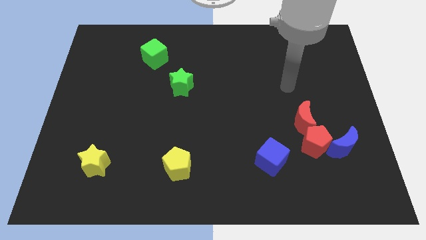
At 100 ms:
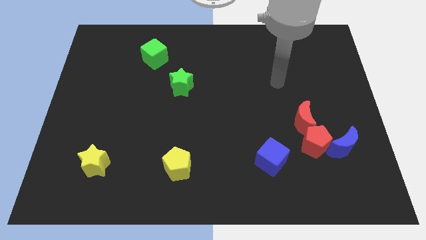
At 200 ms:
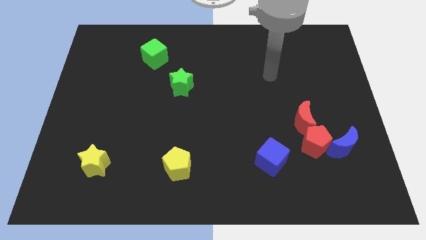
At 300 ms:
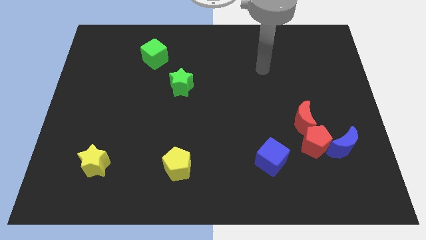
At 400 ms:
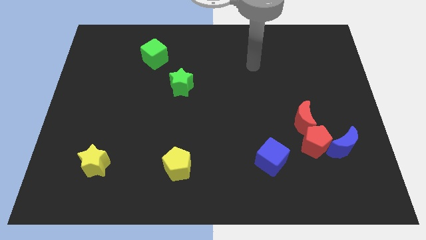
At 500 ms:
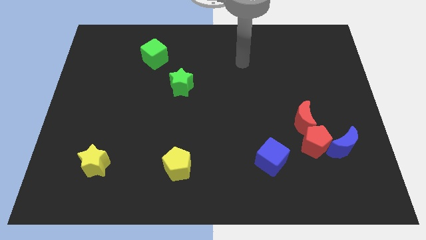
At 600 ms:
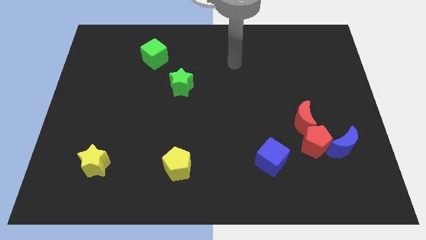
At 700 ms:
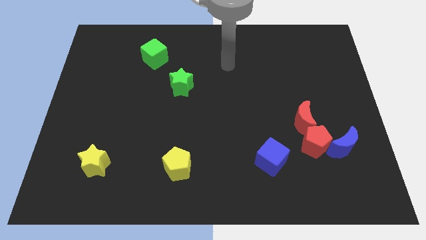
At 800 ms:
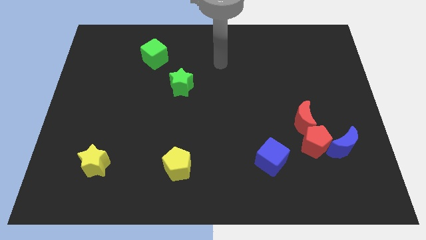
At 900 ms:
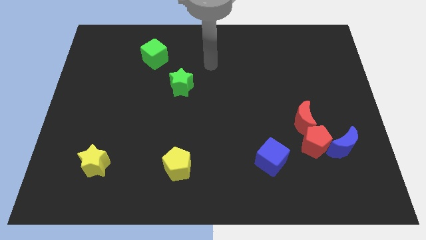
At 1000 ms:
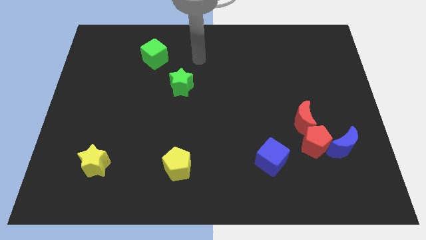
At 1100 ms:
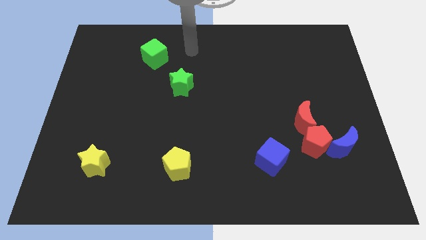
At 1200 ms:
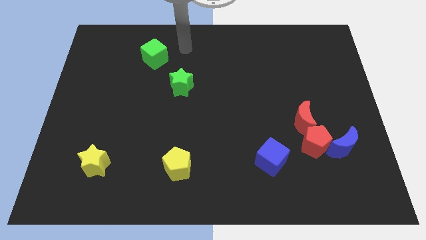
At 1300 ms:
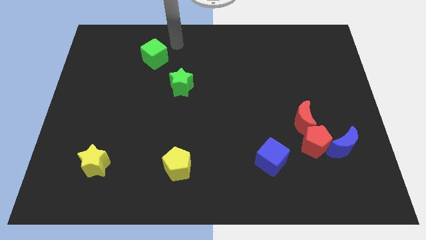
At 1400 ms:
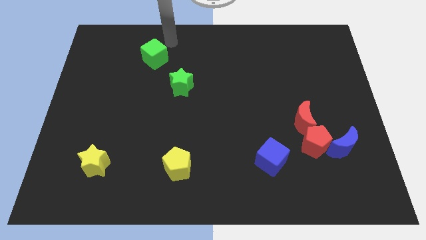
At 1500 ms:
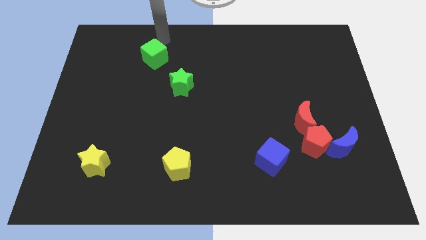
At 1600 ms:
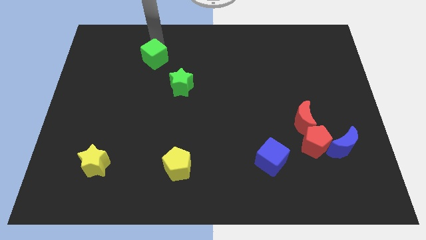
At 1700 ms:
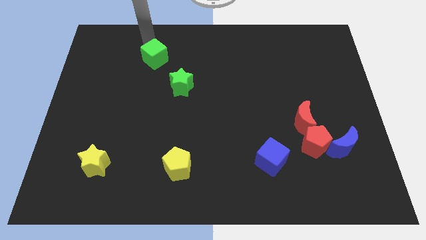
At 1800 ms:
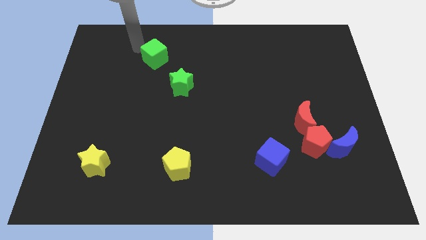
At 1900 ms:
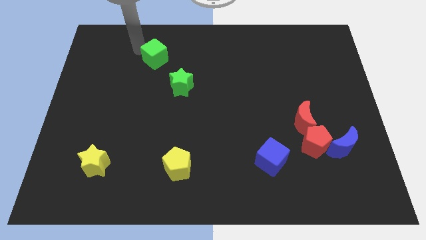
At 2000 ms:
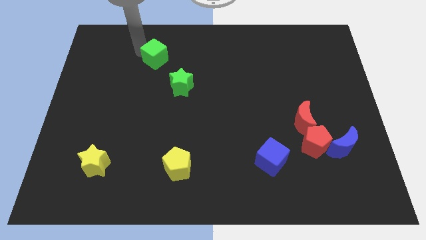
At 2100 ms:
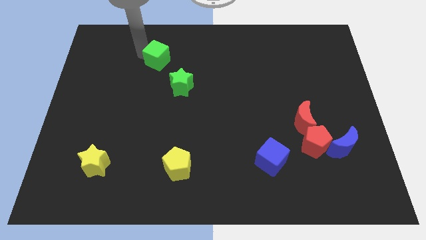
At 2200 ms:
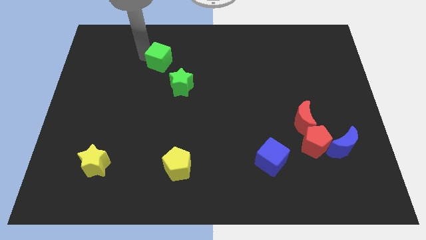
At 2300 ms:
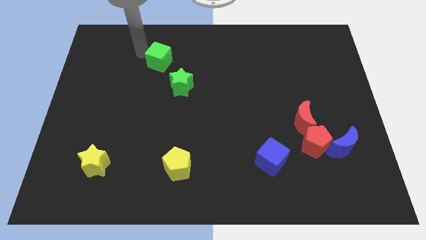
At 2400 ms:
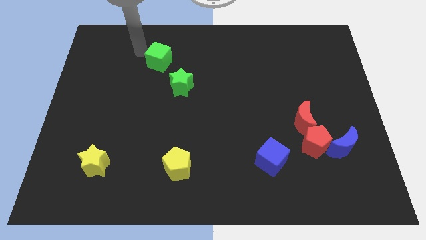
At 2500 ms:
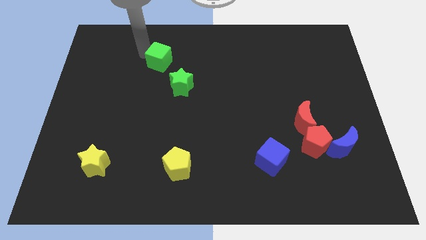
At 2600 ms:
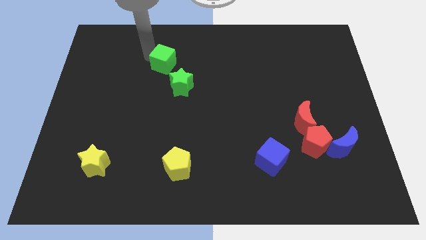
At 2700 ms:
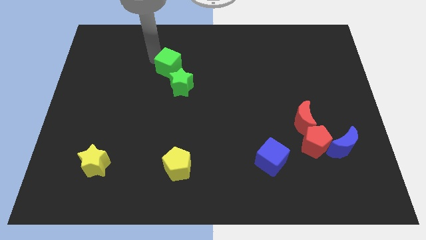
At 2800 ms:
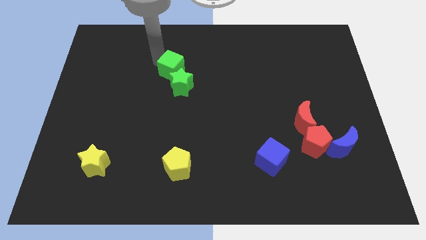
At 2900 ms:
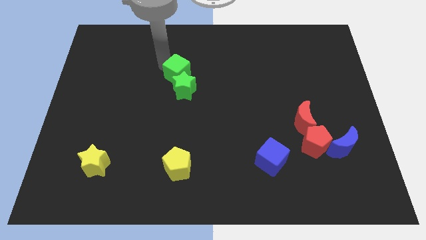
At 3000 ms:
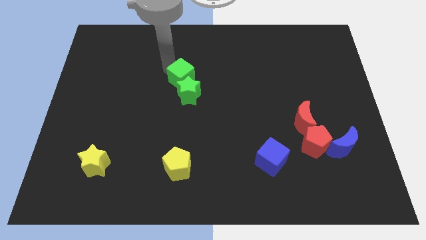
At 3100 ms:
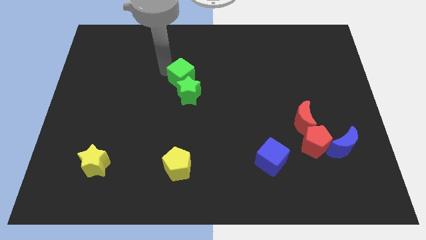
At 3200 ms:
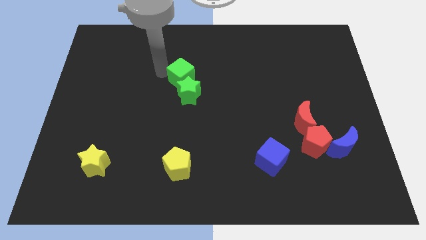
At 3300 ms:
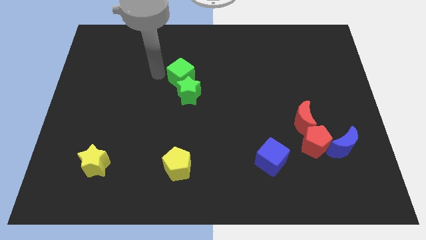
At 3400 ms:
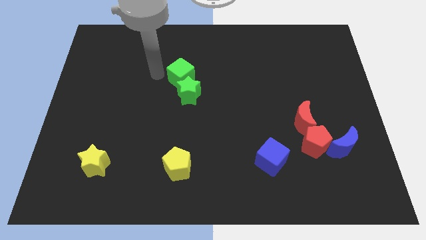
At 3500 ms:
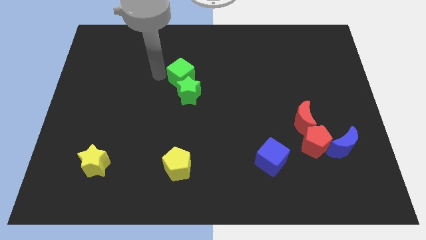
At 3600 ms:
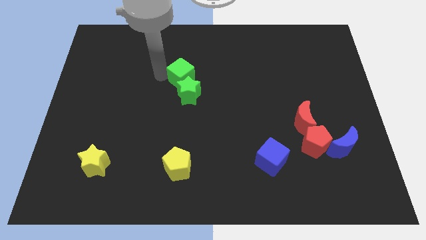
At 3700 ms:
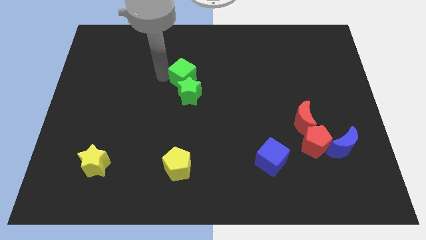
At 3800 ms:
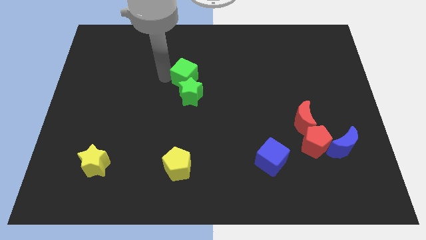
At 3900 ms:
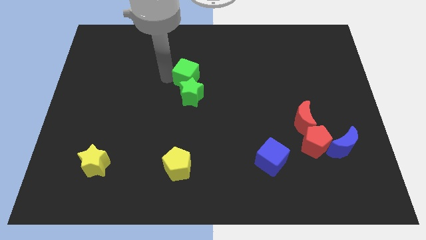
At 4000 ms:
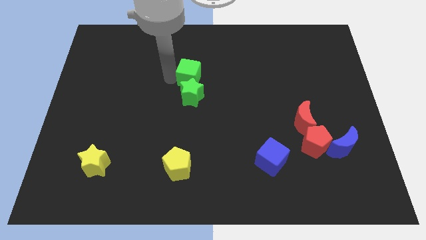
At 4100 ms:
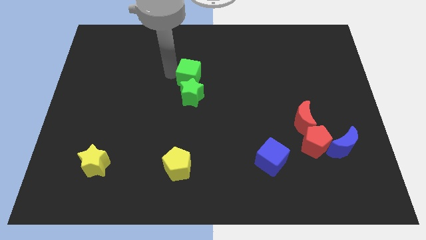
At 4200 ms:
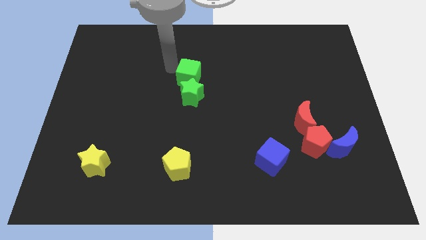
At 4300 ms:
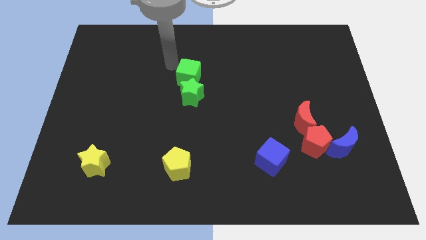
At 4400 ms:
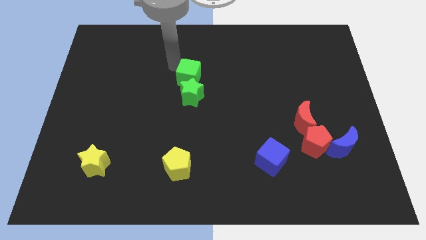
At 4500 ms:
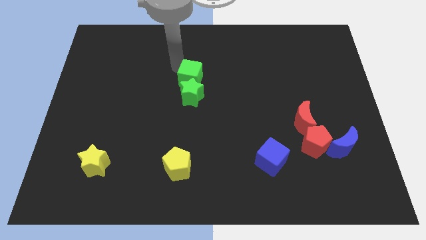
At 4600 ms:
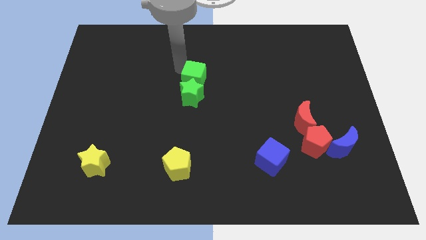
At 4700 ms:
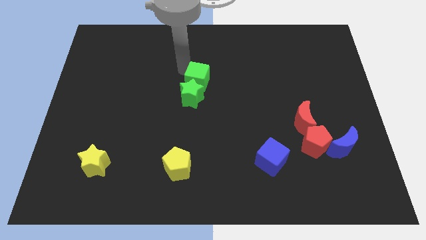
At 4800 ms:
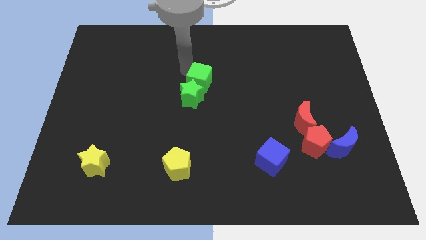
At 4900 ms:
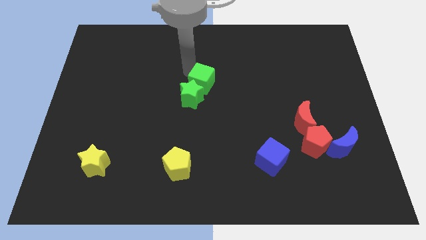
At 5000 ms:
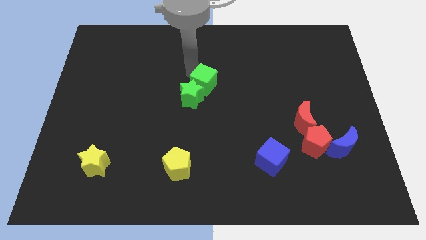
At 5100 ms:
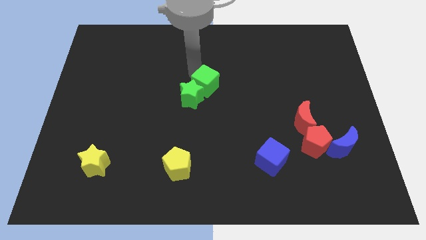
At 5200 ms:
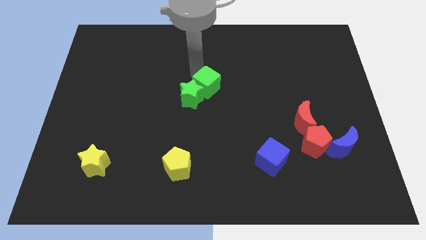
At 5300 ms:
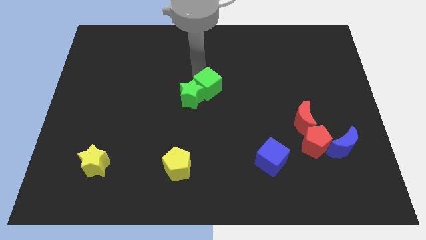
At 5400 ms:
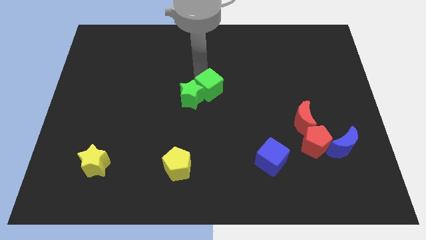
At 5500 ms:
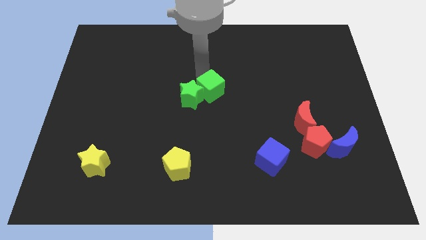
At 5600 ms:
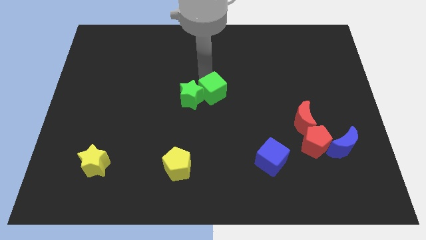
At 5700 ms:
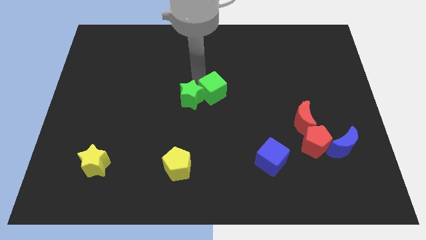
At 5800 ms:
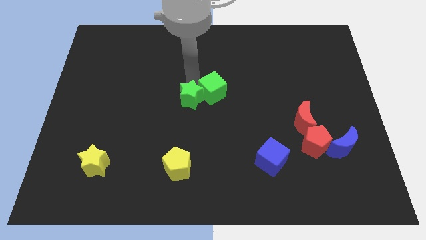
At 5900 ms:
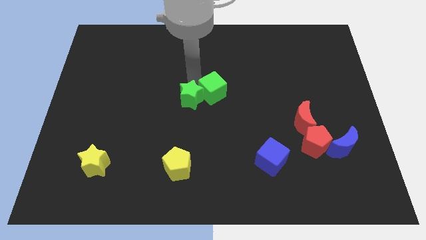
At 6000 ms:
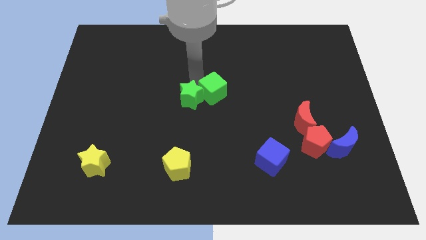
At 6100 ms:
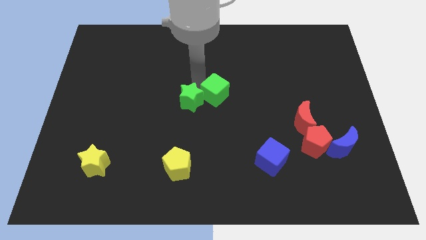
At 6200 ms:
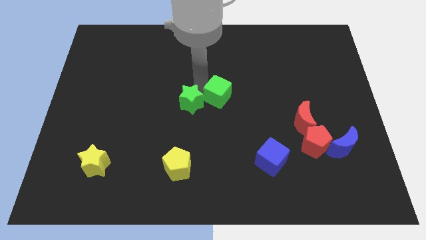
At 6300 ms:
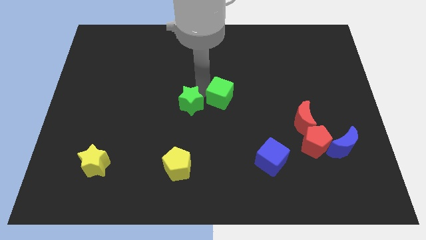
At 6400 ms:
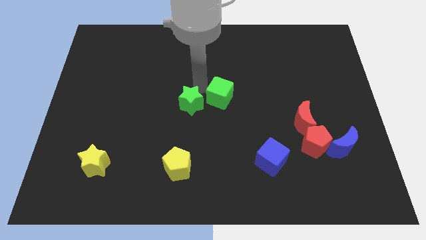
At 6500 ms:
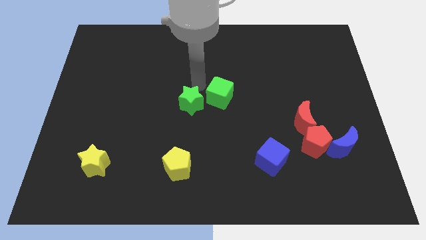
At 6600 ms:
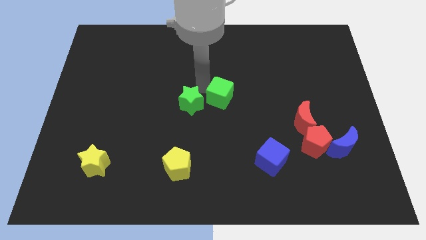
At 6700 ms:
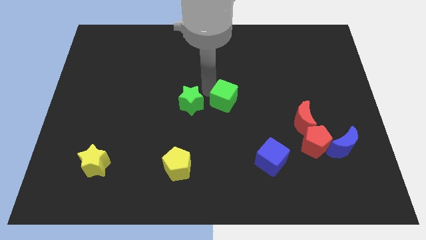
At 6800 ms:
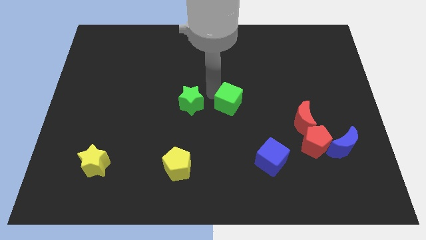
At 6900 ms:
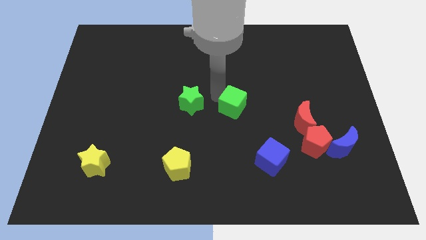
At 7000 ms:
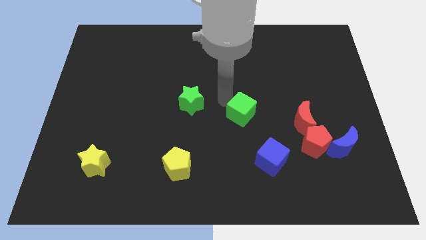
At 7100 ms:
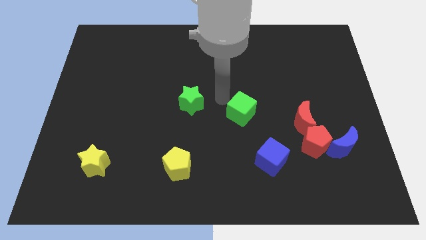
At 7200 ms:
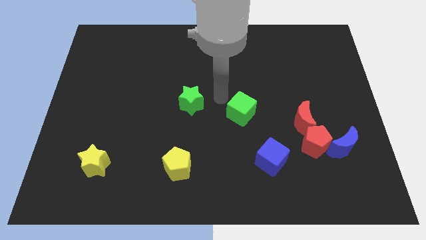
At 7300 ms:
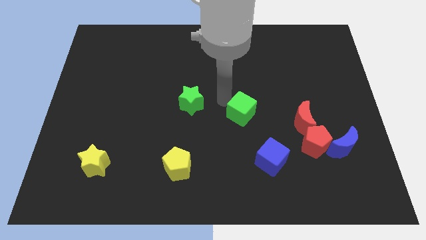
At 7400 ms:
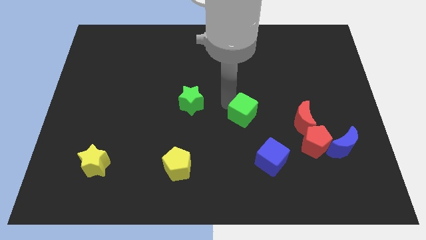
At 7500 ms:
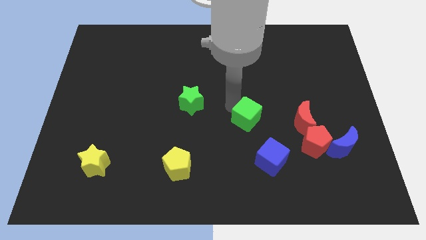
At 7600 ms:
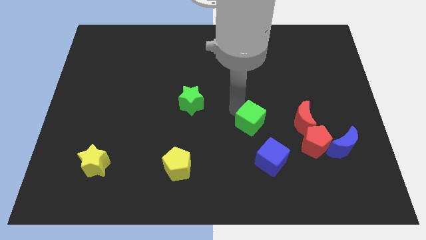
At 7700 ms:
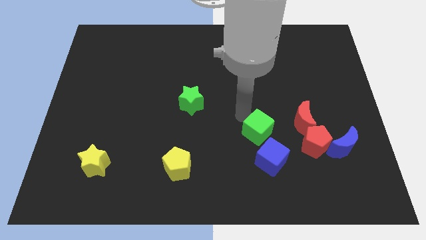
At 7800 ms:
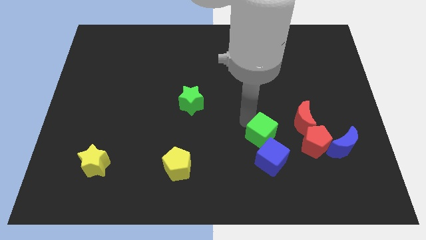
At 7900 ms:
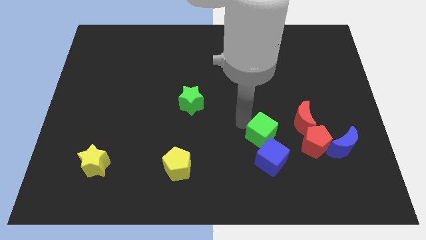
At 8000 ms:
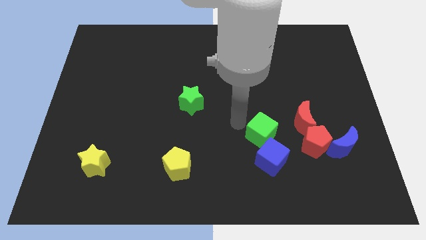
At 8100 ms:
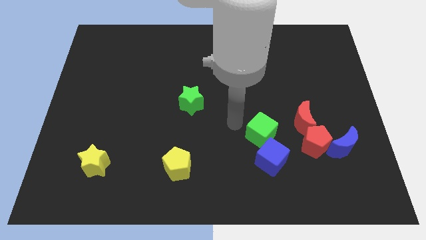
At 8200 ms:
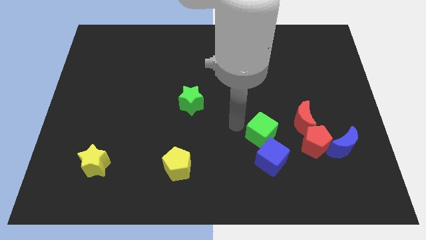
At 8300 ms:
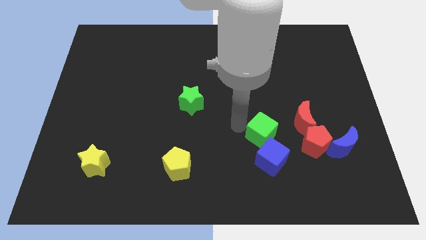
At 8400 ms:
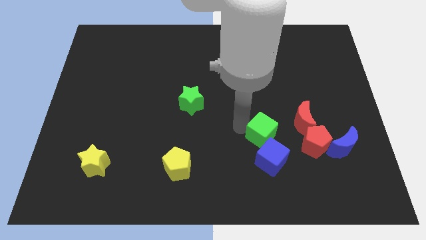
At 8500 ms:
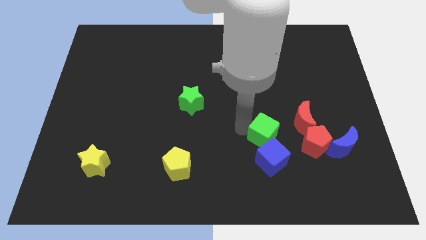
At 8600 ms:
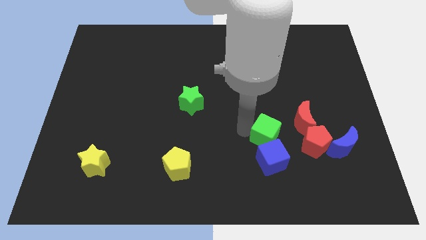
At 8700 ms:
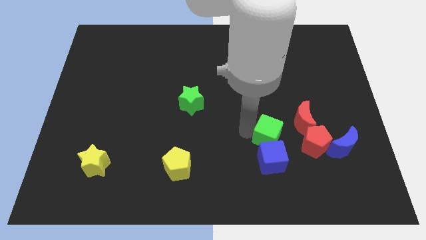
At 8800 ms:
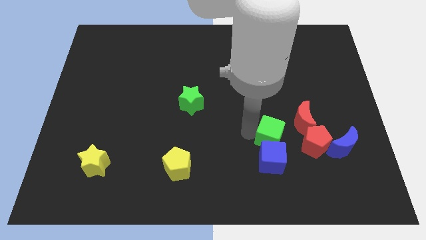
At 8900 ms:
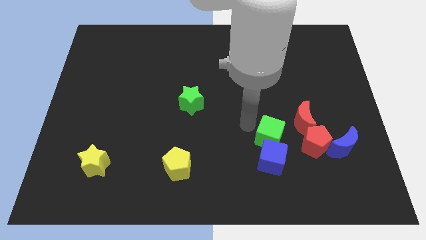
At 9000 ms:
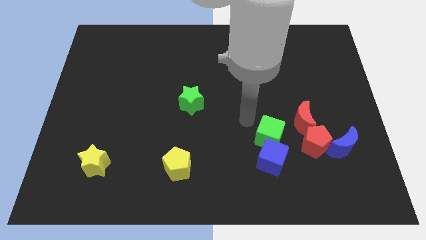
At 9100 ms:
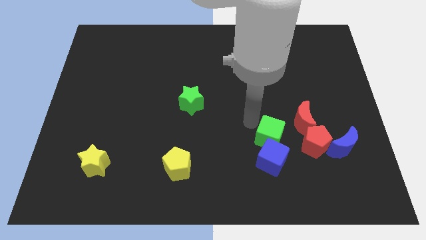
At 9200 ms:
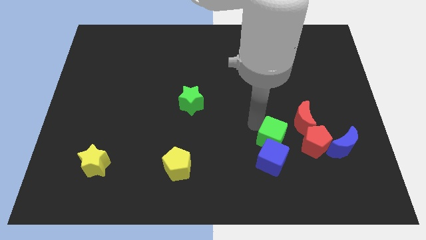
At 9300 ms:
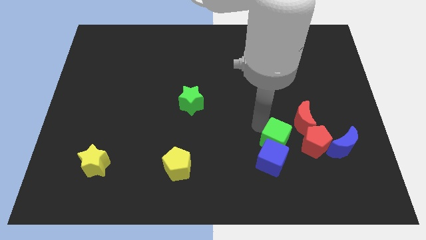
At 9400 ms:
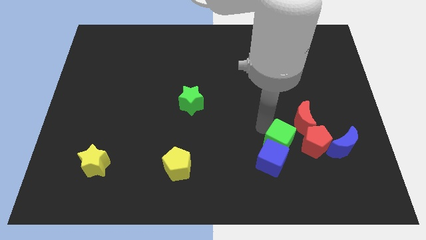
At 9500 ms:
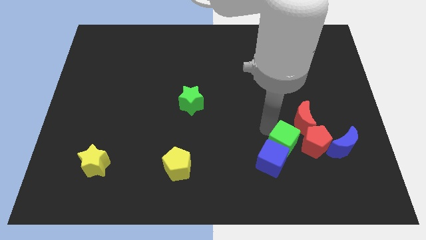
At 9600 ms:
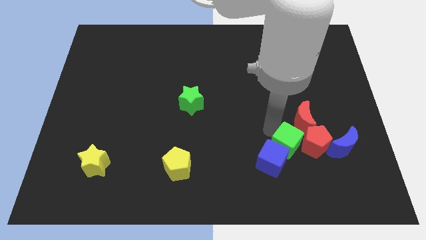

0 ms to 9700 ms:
push the green cube to the right side of the blue cube
